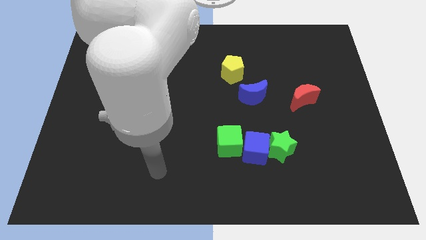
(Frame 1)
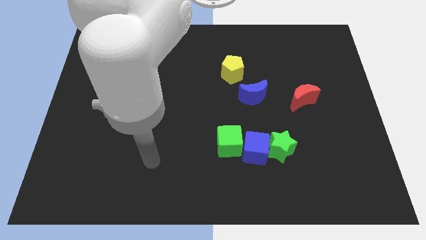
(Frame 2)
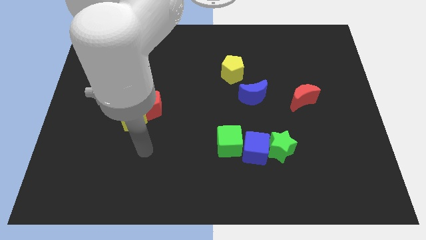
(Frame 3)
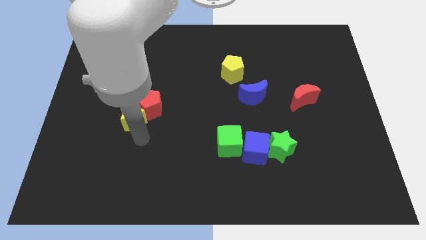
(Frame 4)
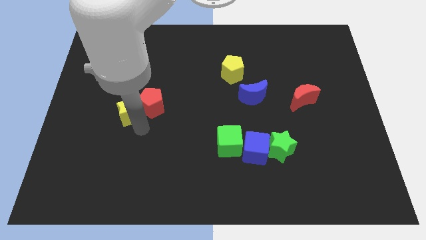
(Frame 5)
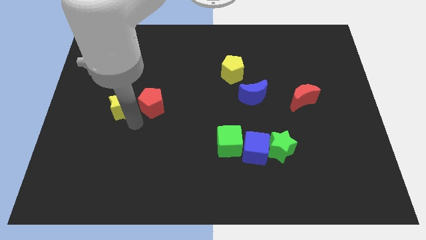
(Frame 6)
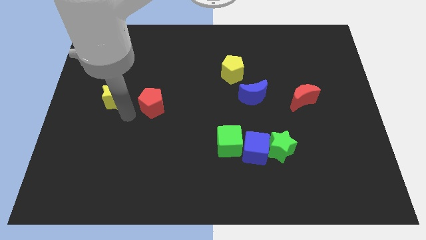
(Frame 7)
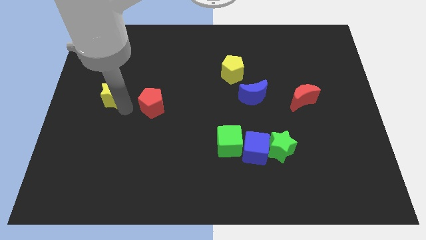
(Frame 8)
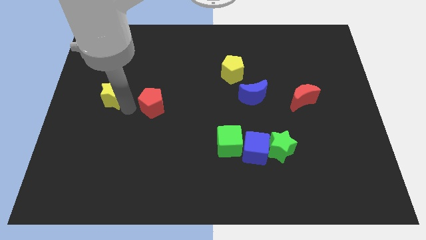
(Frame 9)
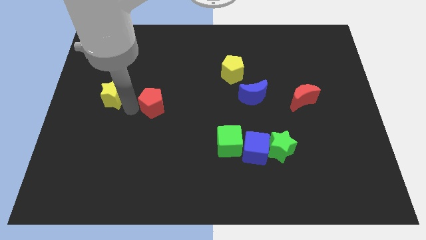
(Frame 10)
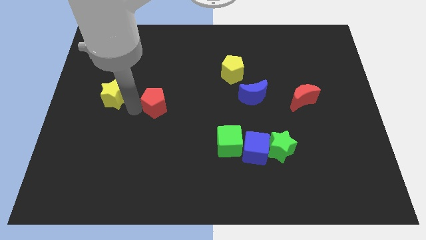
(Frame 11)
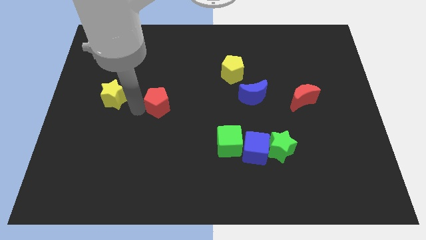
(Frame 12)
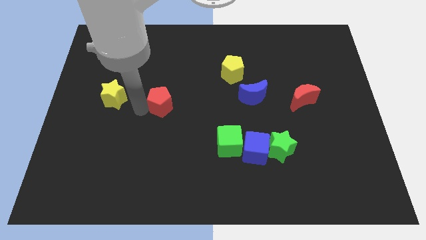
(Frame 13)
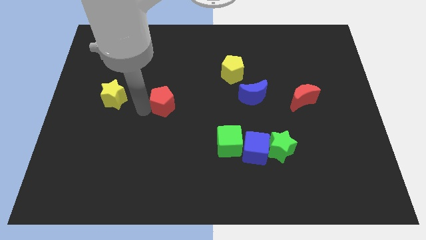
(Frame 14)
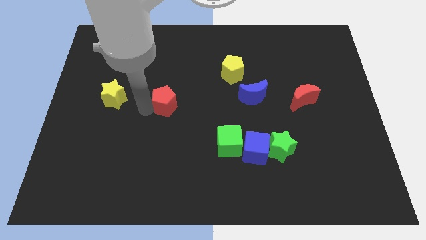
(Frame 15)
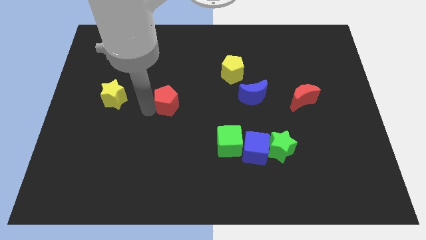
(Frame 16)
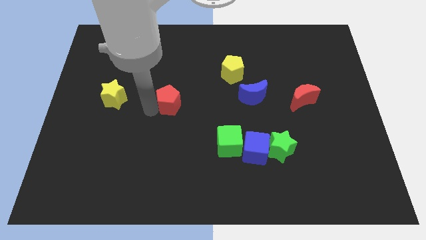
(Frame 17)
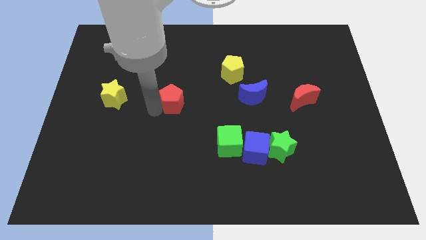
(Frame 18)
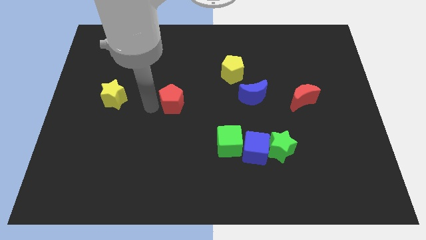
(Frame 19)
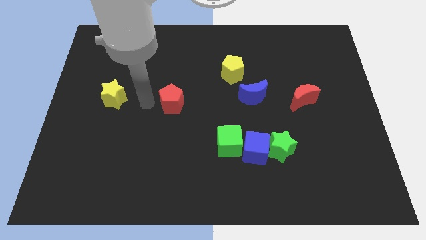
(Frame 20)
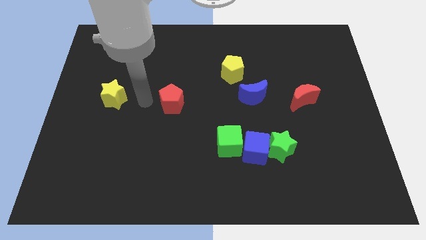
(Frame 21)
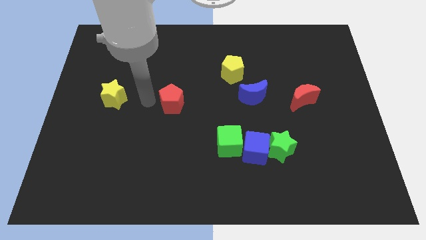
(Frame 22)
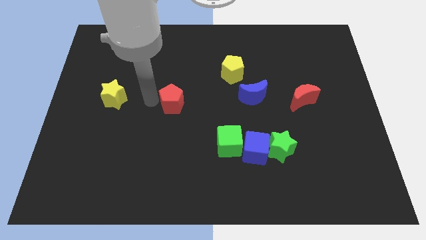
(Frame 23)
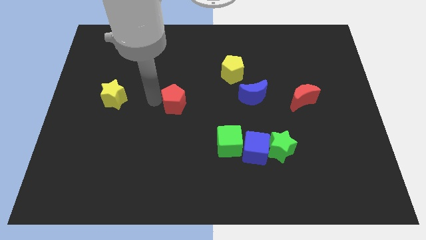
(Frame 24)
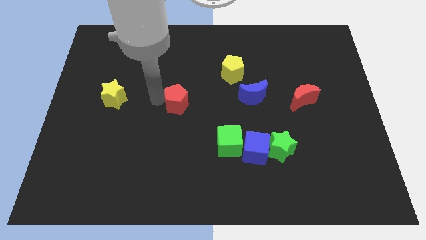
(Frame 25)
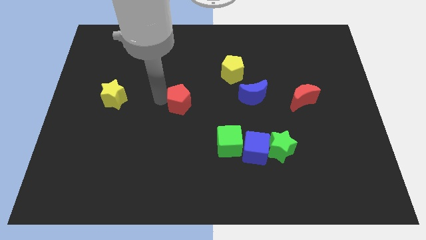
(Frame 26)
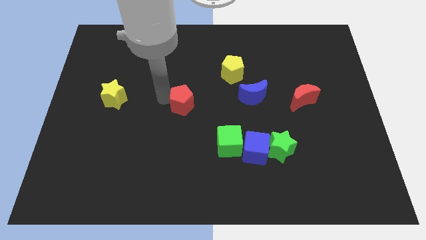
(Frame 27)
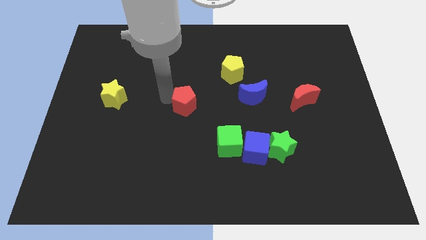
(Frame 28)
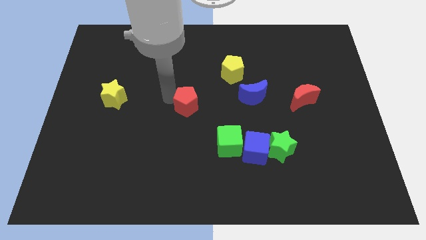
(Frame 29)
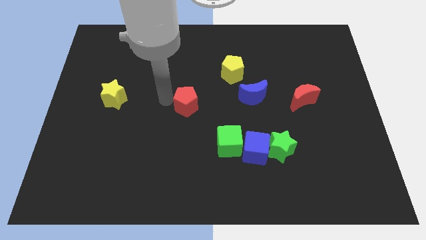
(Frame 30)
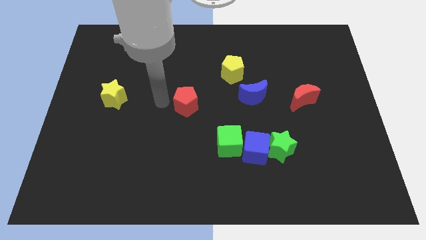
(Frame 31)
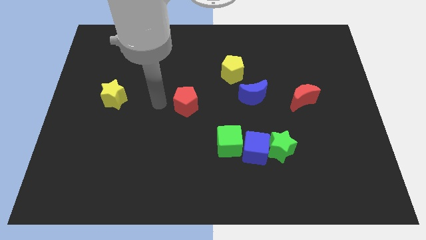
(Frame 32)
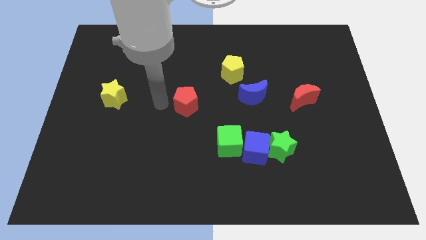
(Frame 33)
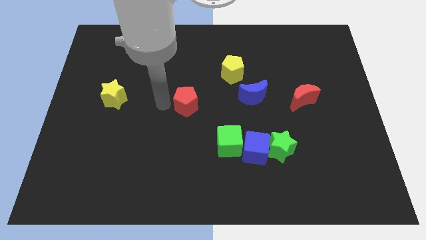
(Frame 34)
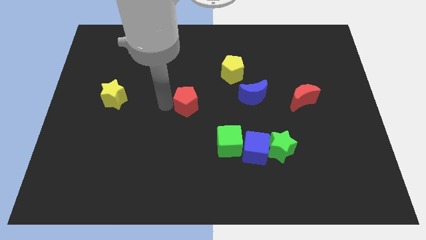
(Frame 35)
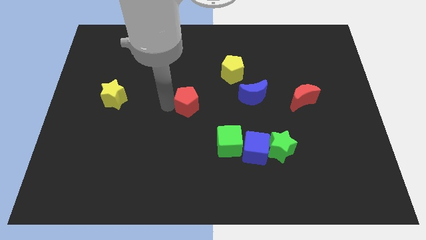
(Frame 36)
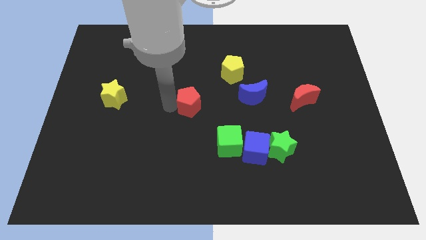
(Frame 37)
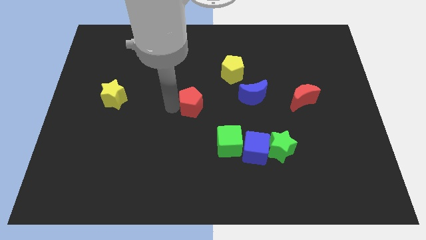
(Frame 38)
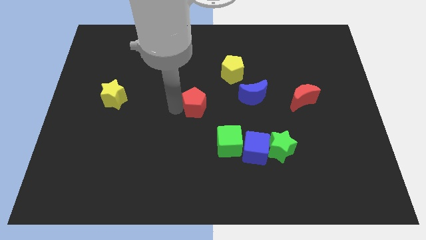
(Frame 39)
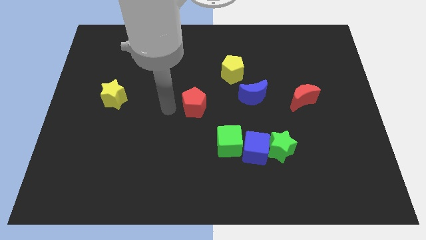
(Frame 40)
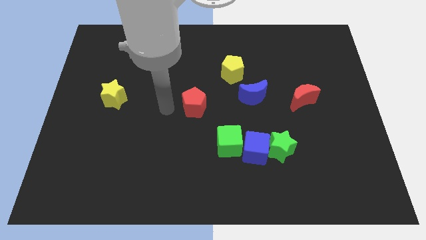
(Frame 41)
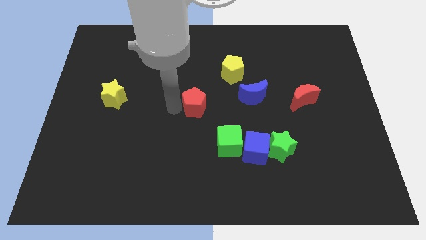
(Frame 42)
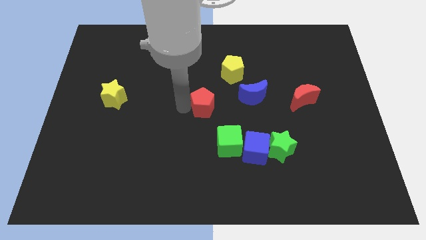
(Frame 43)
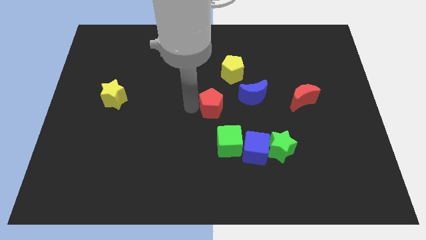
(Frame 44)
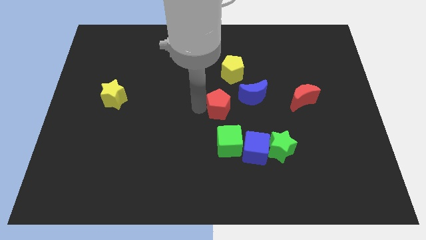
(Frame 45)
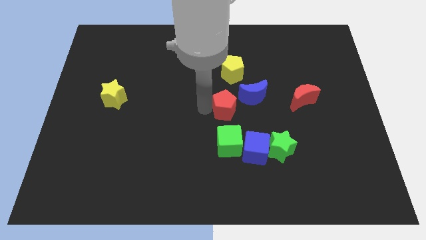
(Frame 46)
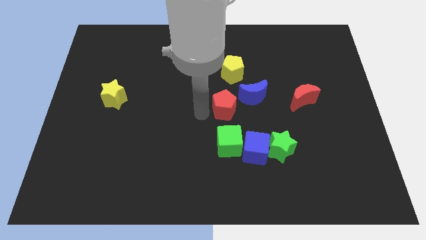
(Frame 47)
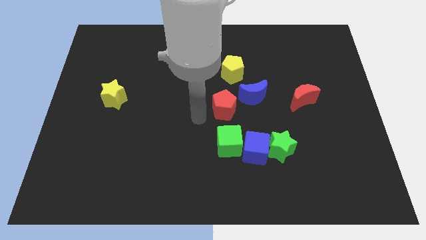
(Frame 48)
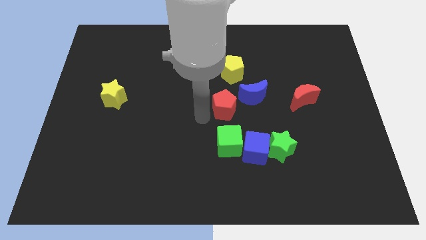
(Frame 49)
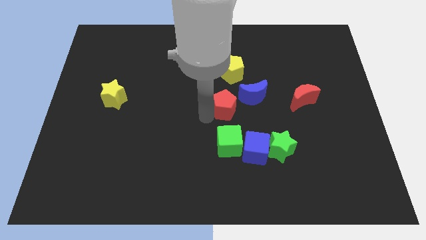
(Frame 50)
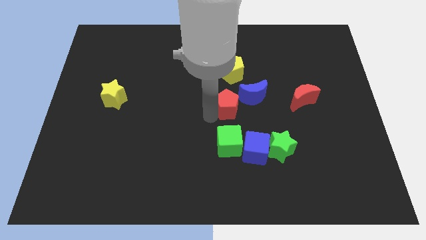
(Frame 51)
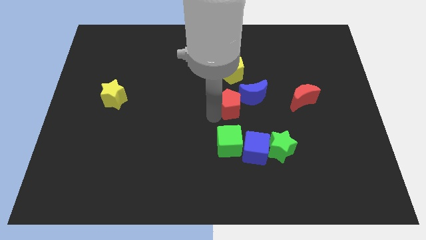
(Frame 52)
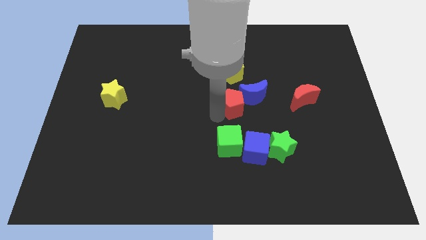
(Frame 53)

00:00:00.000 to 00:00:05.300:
put the red pentagon to the blue moon

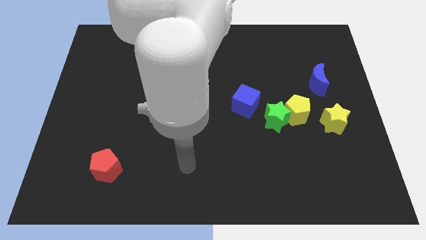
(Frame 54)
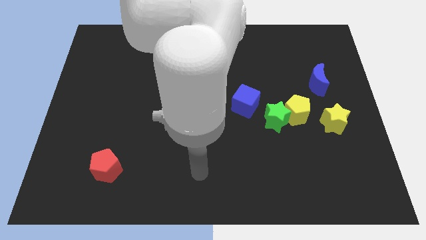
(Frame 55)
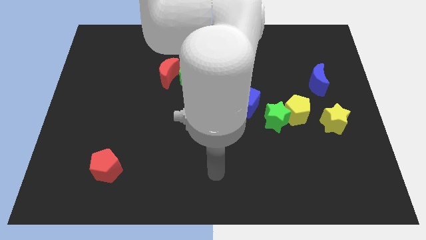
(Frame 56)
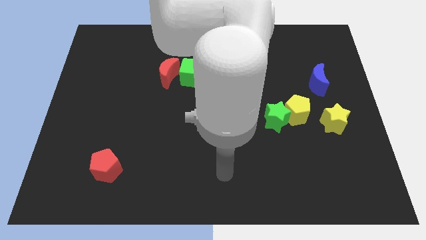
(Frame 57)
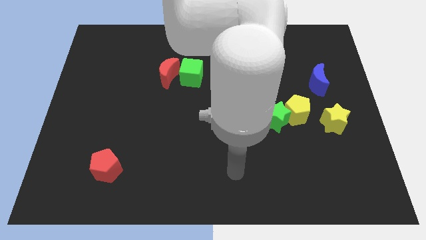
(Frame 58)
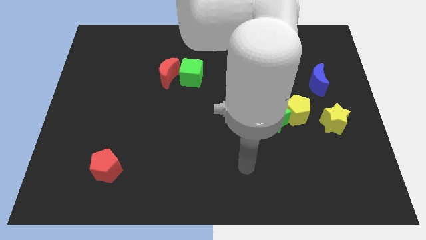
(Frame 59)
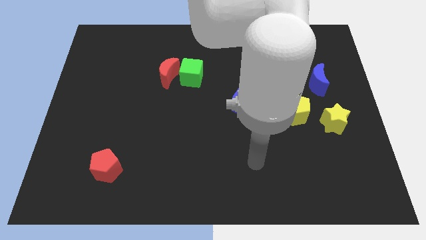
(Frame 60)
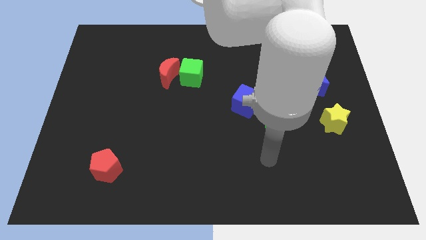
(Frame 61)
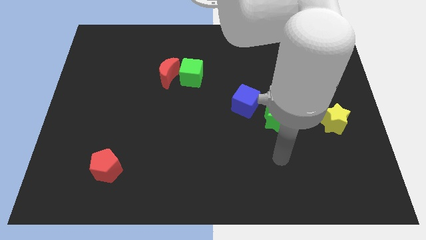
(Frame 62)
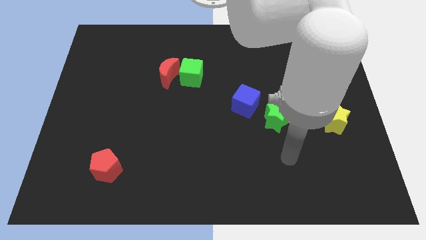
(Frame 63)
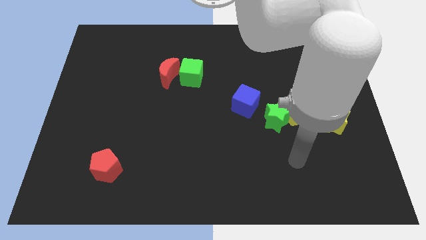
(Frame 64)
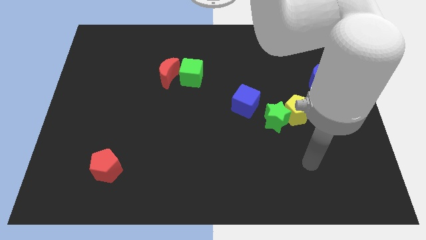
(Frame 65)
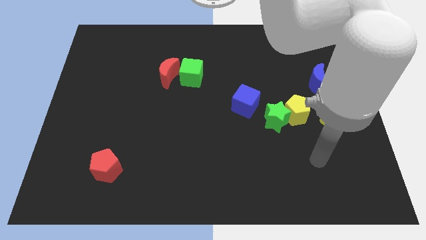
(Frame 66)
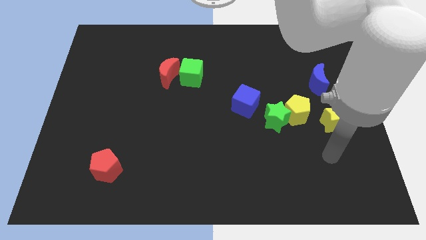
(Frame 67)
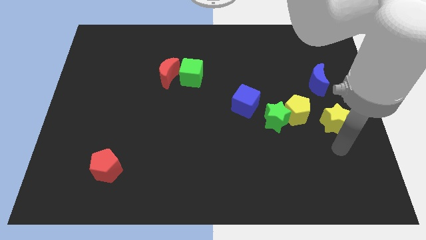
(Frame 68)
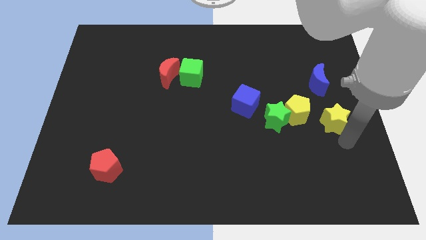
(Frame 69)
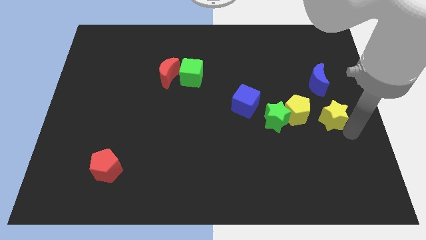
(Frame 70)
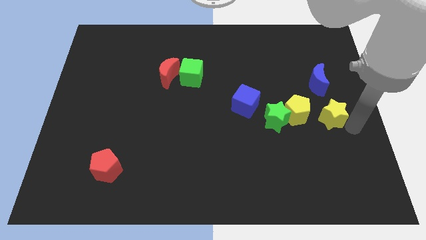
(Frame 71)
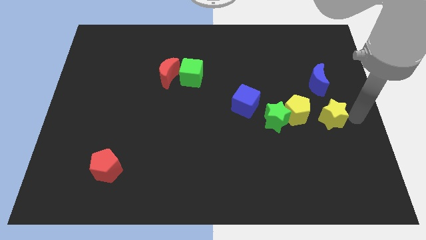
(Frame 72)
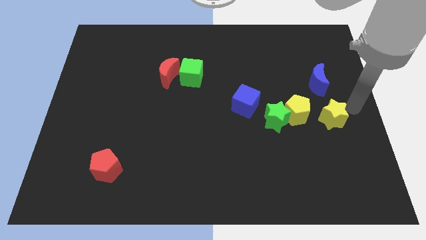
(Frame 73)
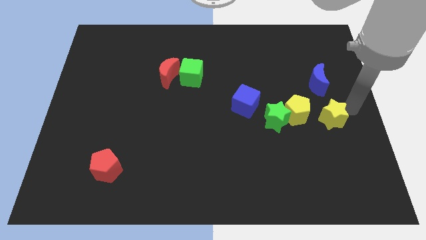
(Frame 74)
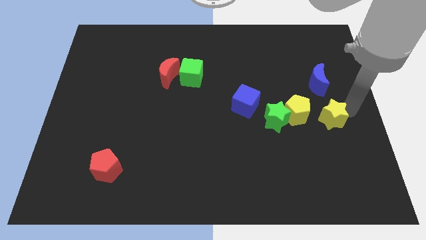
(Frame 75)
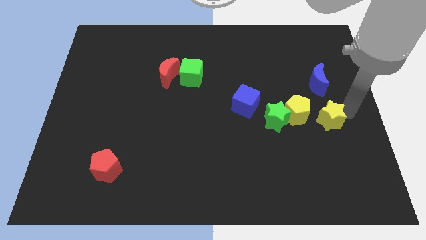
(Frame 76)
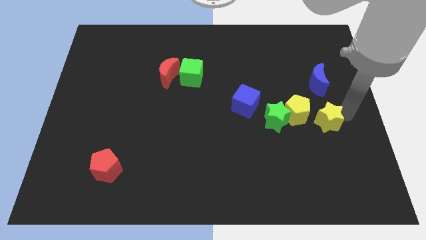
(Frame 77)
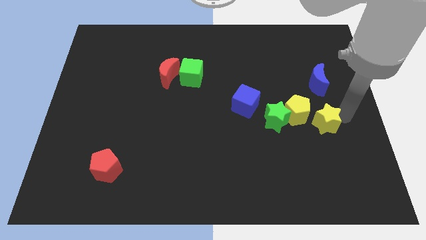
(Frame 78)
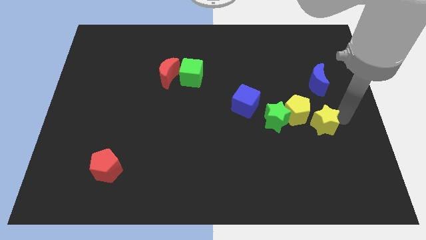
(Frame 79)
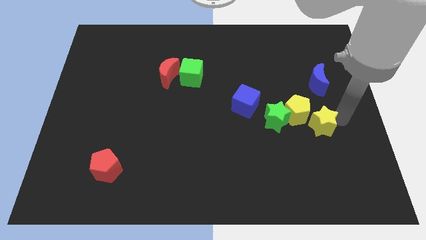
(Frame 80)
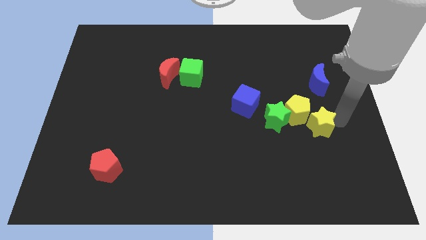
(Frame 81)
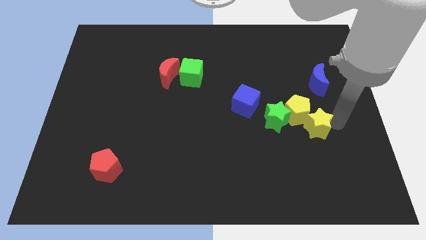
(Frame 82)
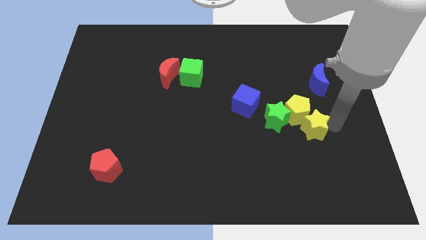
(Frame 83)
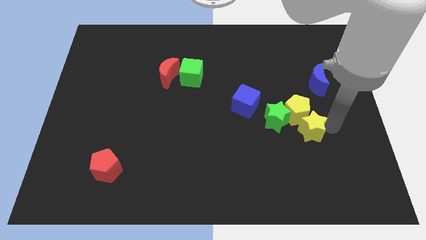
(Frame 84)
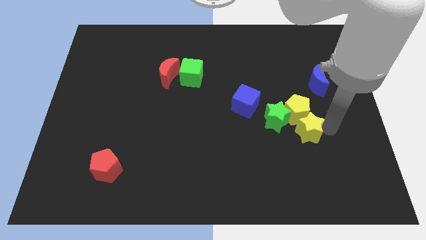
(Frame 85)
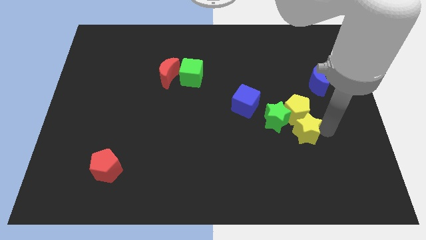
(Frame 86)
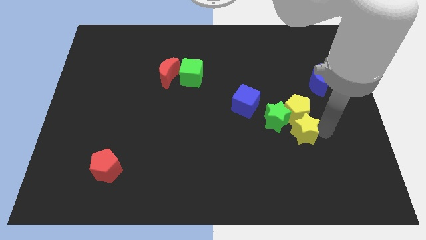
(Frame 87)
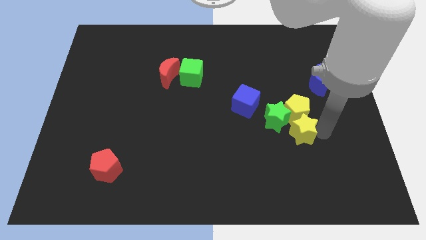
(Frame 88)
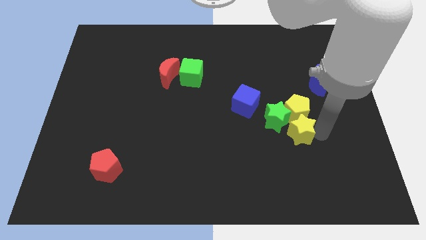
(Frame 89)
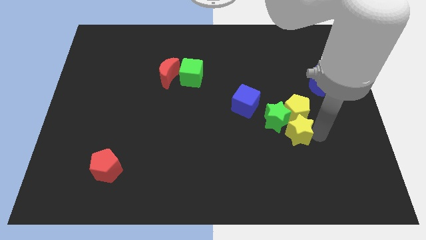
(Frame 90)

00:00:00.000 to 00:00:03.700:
slide the yellow star towards the green star
